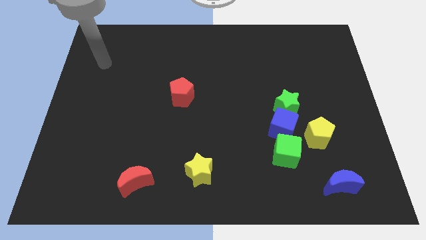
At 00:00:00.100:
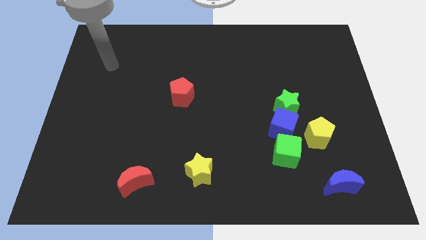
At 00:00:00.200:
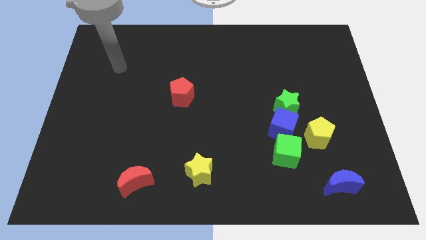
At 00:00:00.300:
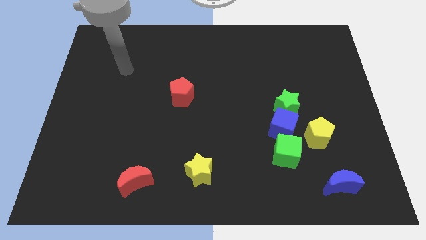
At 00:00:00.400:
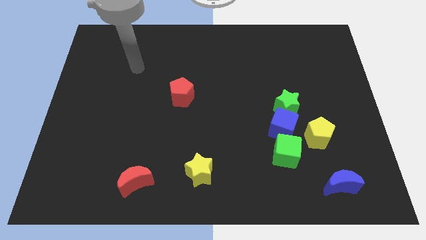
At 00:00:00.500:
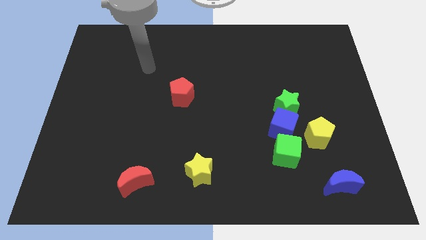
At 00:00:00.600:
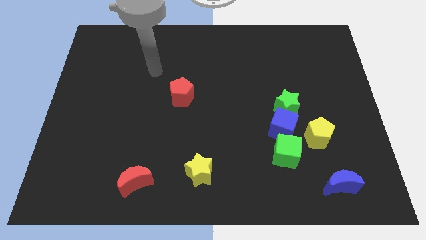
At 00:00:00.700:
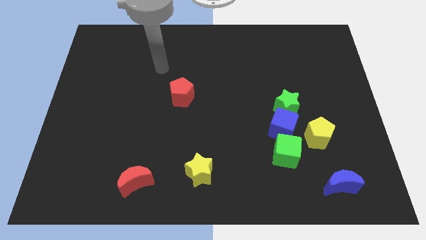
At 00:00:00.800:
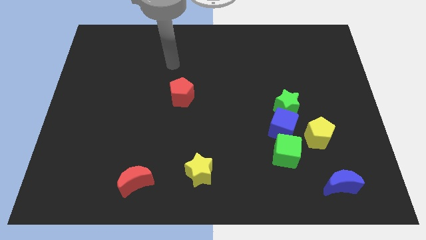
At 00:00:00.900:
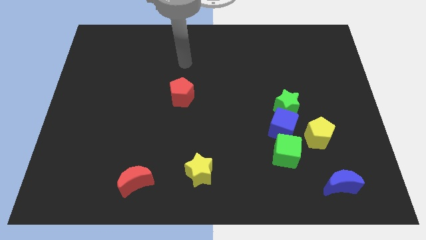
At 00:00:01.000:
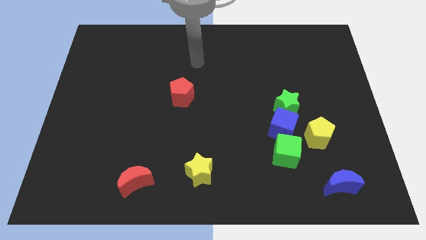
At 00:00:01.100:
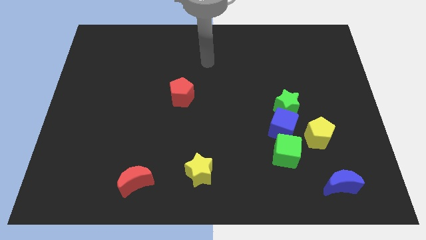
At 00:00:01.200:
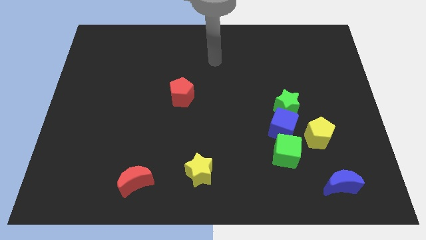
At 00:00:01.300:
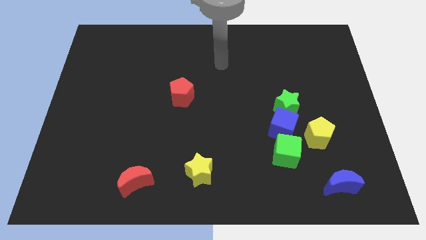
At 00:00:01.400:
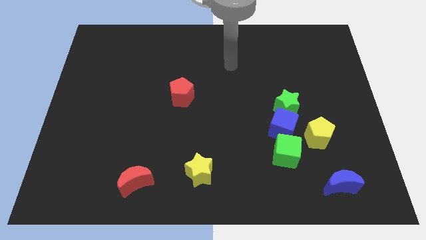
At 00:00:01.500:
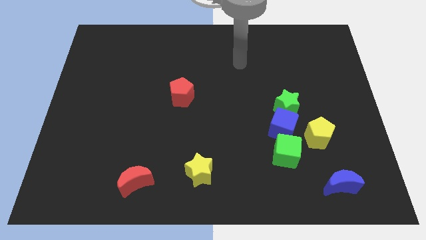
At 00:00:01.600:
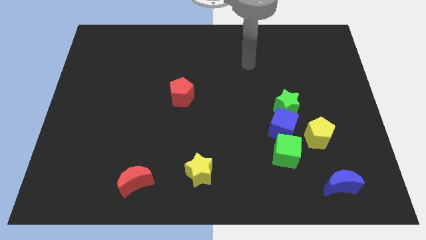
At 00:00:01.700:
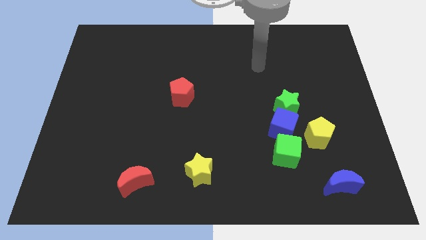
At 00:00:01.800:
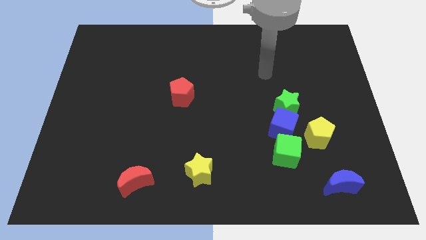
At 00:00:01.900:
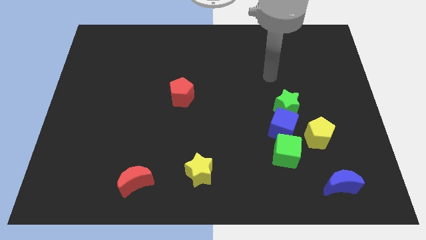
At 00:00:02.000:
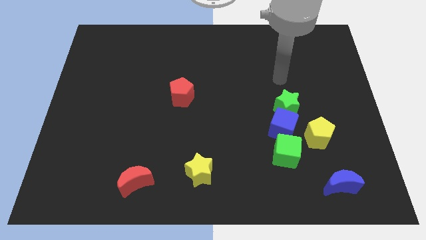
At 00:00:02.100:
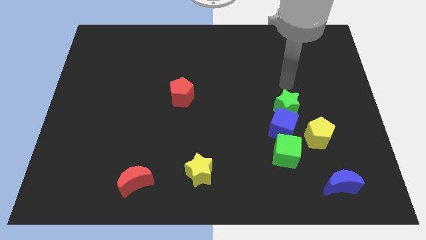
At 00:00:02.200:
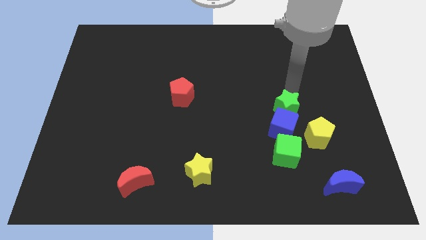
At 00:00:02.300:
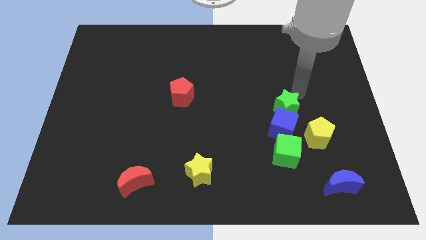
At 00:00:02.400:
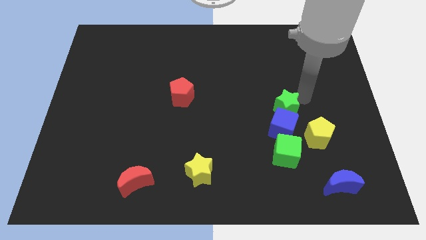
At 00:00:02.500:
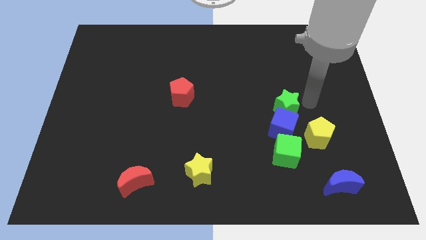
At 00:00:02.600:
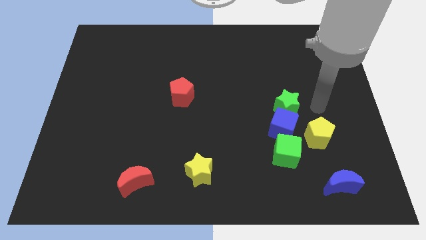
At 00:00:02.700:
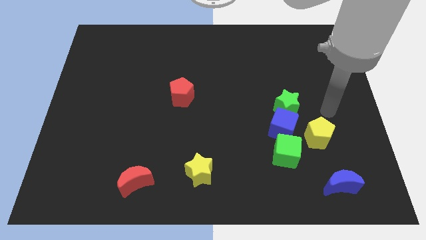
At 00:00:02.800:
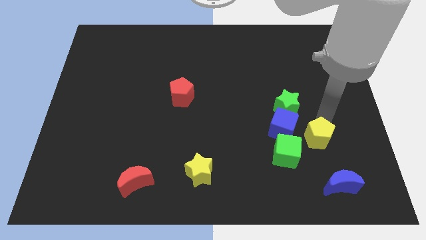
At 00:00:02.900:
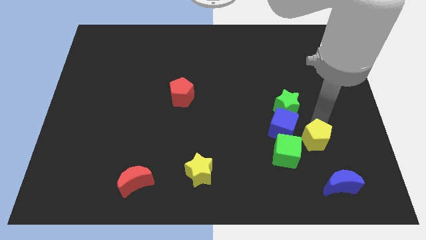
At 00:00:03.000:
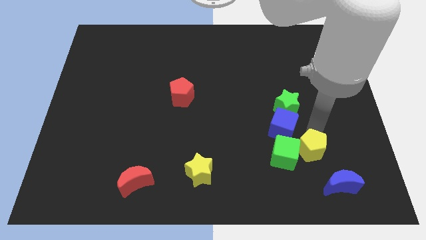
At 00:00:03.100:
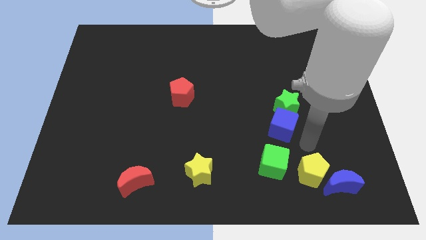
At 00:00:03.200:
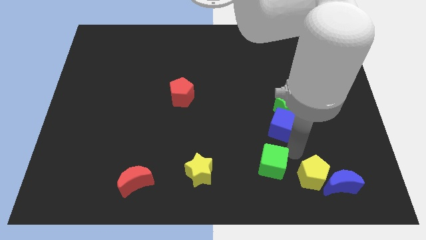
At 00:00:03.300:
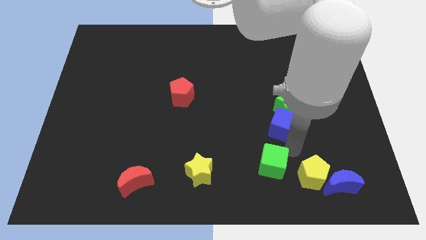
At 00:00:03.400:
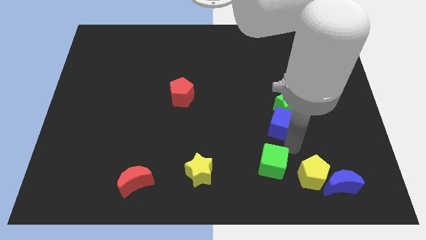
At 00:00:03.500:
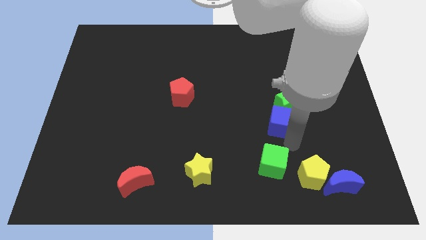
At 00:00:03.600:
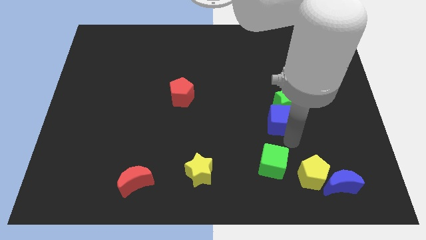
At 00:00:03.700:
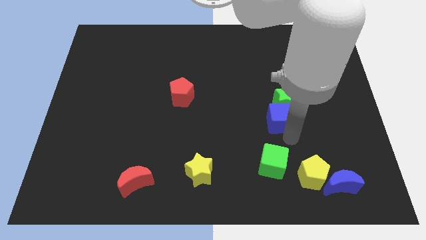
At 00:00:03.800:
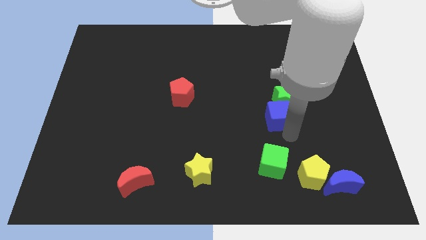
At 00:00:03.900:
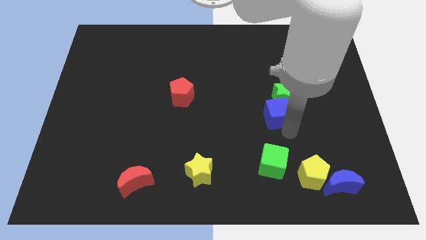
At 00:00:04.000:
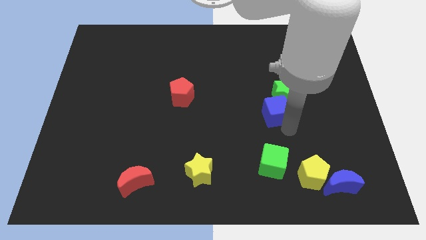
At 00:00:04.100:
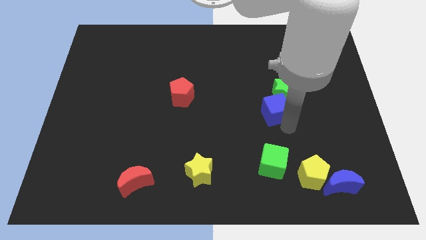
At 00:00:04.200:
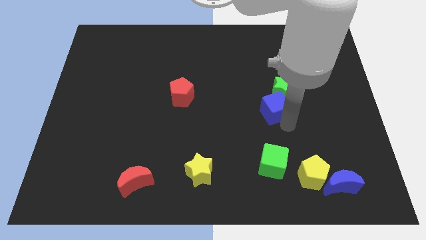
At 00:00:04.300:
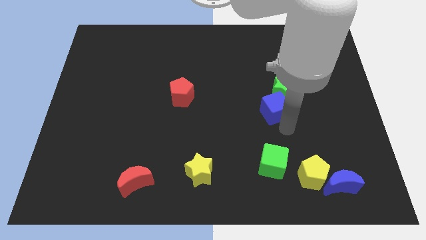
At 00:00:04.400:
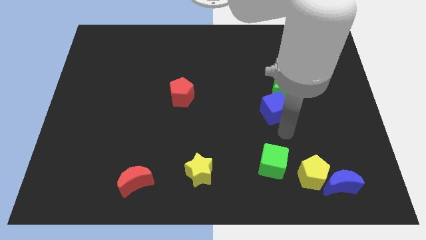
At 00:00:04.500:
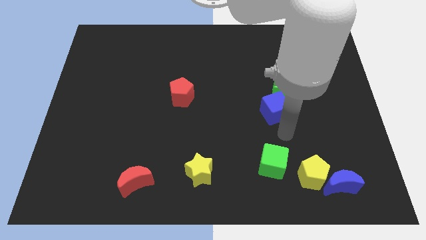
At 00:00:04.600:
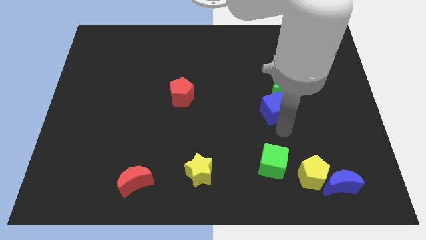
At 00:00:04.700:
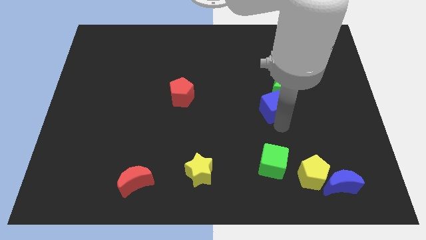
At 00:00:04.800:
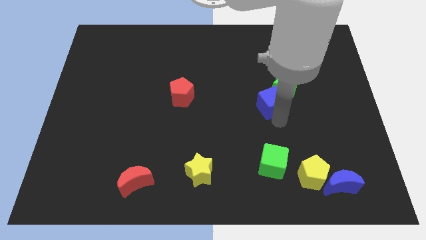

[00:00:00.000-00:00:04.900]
move the blue cube away from the clump

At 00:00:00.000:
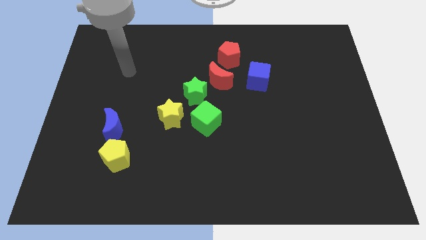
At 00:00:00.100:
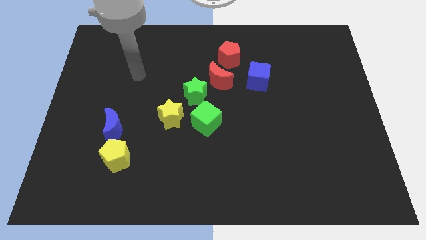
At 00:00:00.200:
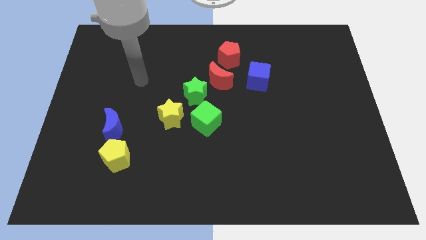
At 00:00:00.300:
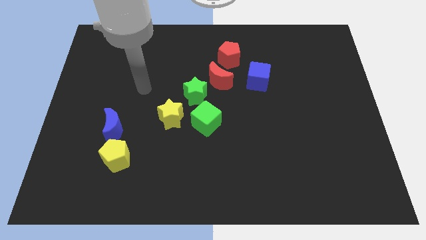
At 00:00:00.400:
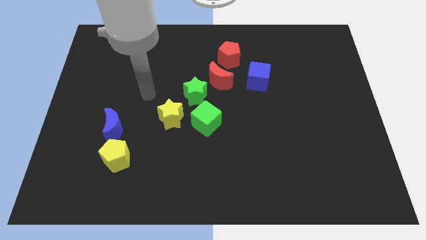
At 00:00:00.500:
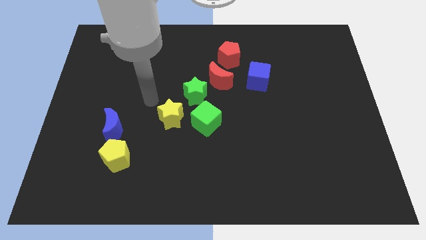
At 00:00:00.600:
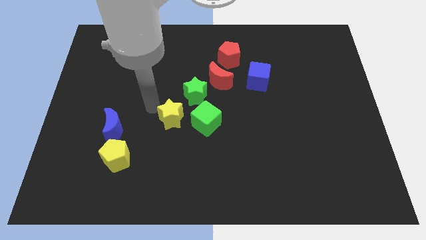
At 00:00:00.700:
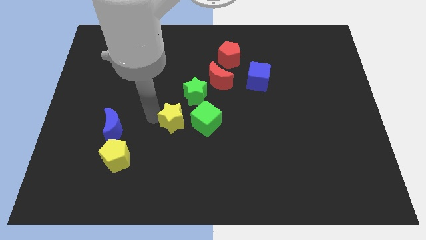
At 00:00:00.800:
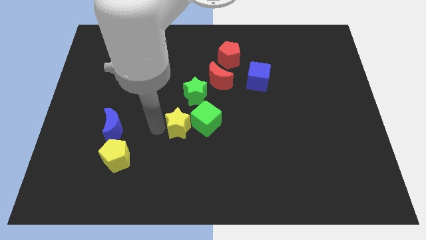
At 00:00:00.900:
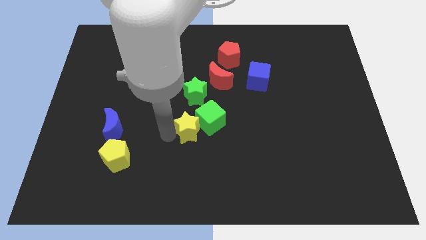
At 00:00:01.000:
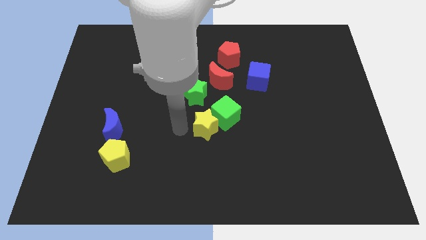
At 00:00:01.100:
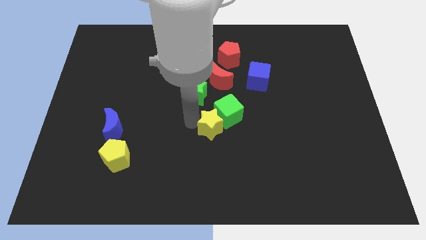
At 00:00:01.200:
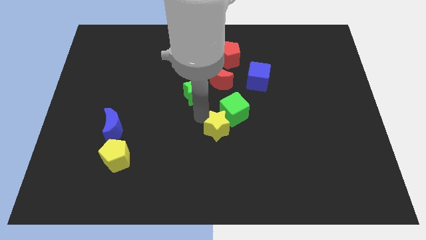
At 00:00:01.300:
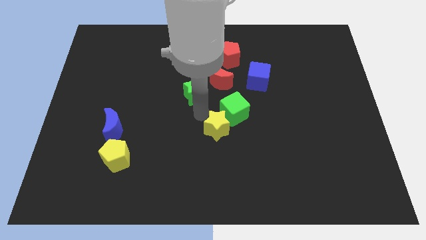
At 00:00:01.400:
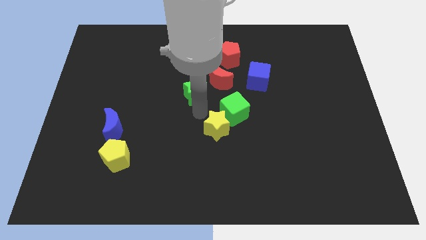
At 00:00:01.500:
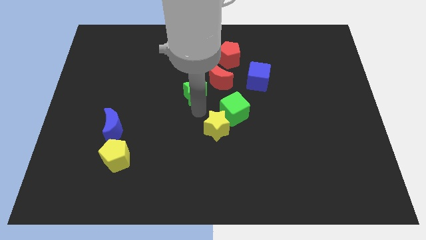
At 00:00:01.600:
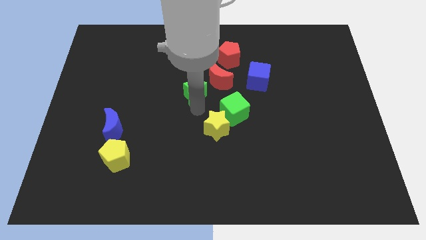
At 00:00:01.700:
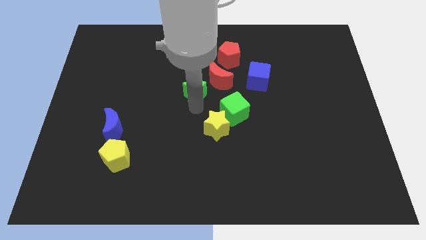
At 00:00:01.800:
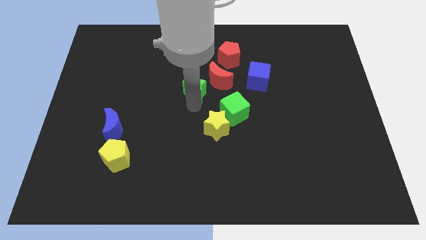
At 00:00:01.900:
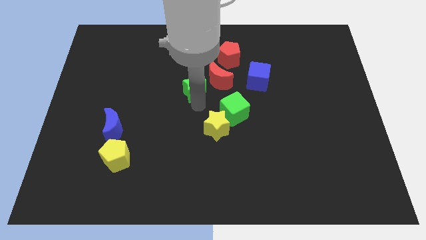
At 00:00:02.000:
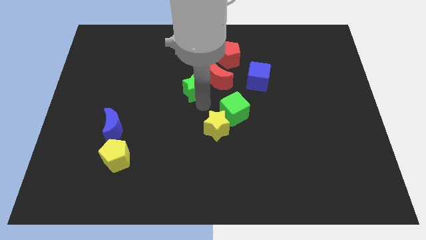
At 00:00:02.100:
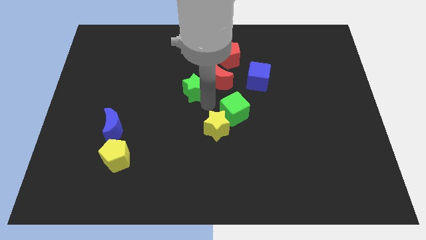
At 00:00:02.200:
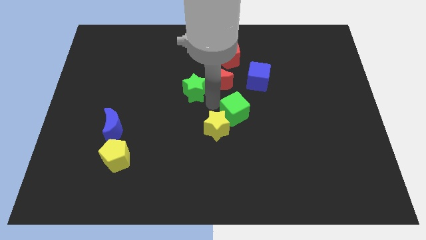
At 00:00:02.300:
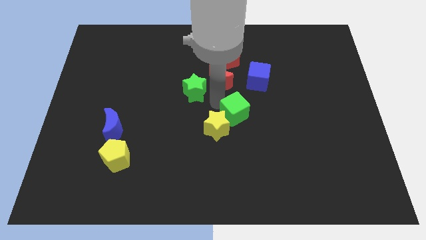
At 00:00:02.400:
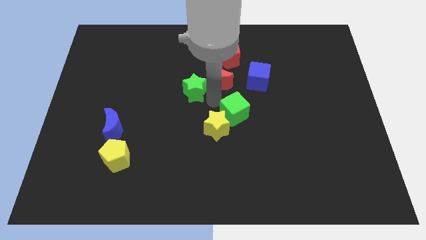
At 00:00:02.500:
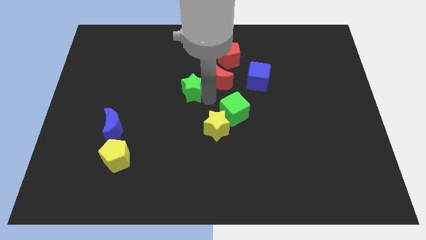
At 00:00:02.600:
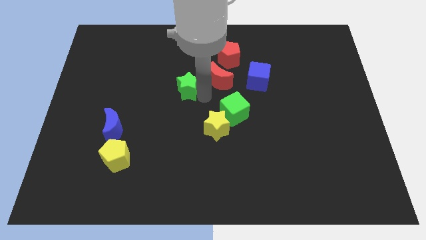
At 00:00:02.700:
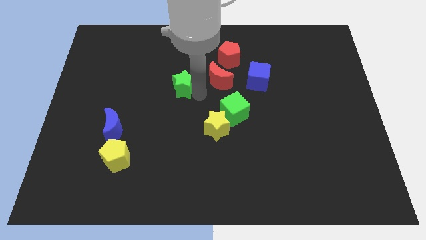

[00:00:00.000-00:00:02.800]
separate the green star from the red moon, green cube, and yellow star

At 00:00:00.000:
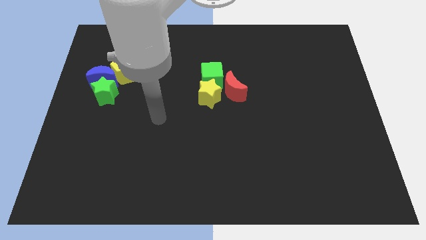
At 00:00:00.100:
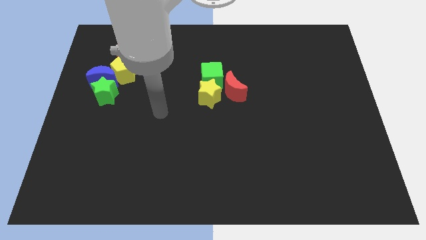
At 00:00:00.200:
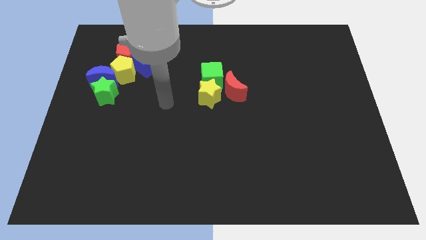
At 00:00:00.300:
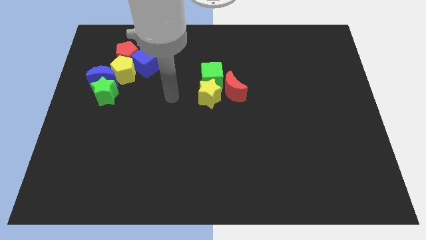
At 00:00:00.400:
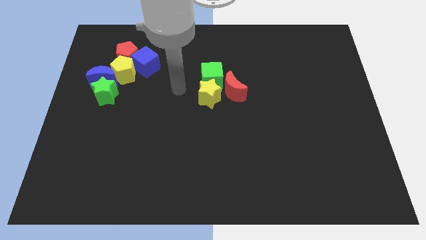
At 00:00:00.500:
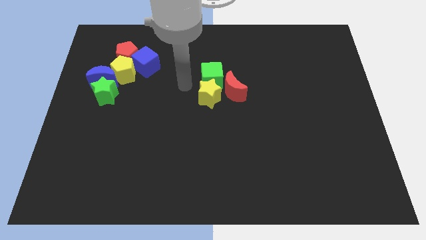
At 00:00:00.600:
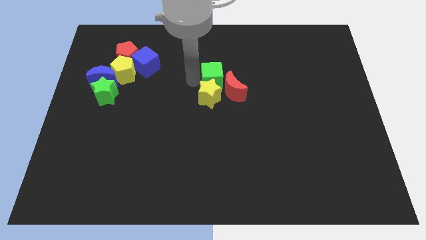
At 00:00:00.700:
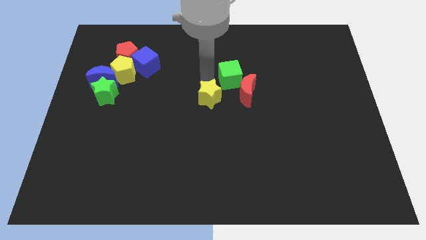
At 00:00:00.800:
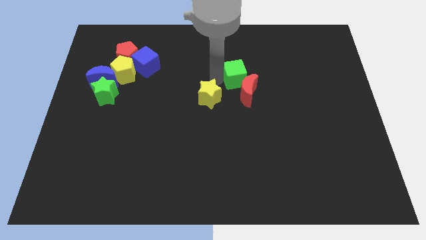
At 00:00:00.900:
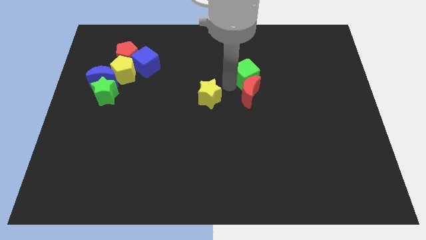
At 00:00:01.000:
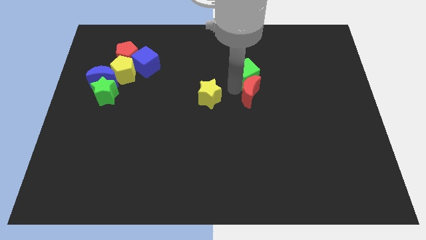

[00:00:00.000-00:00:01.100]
pull the yellow star apart from the green cube and red moon

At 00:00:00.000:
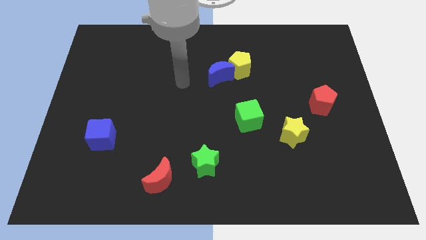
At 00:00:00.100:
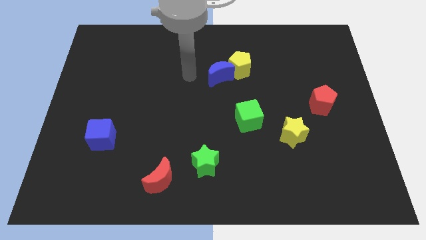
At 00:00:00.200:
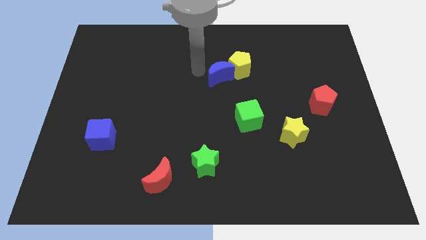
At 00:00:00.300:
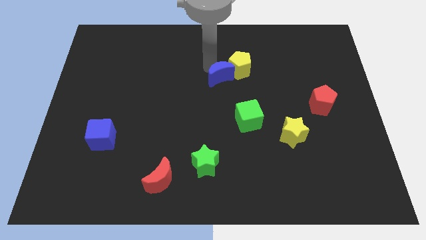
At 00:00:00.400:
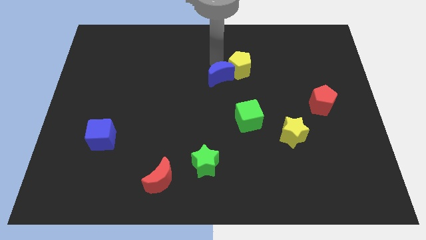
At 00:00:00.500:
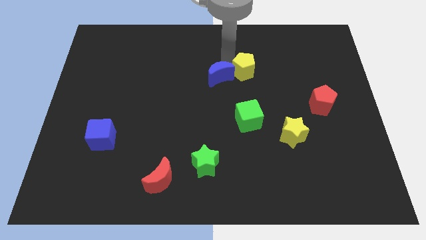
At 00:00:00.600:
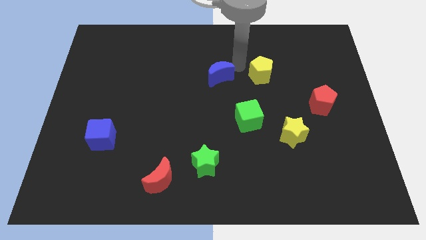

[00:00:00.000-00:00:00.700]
move the blue moon away from the yellow pentagon
